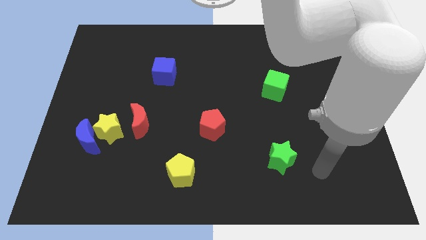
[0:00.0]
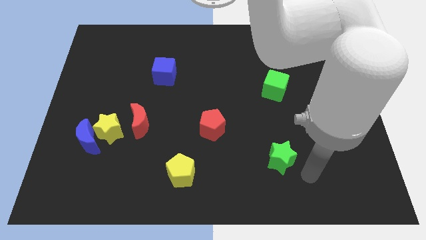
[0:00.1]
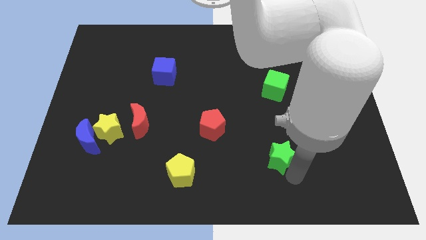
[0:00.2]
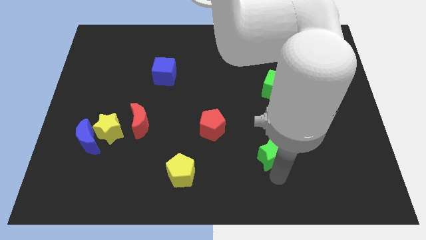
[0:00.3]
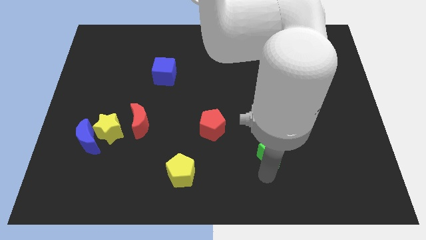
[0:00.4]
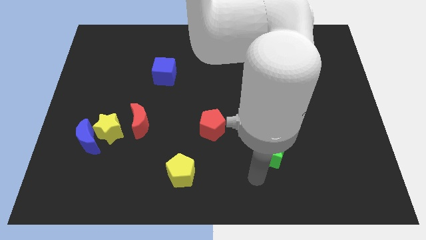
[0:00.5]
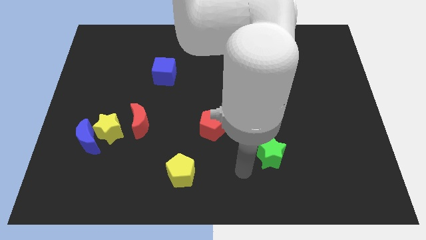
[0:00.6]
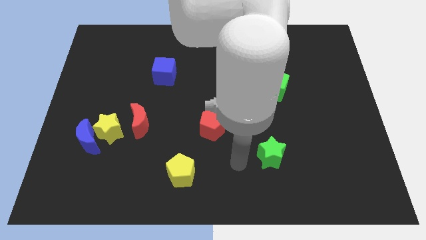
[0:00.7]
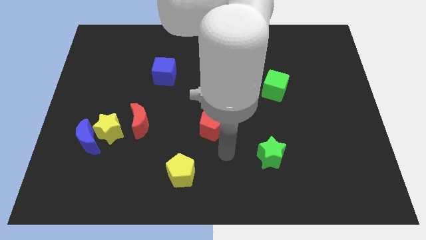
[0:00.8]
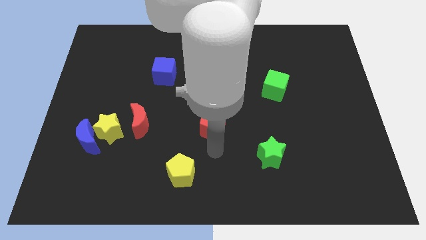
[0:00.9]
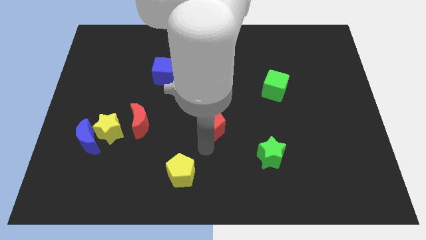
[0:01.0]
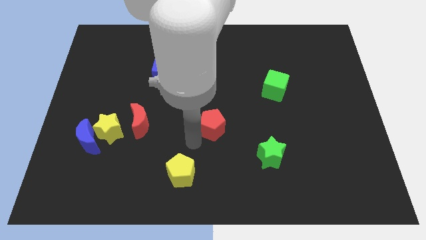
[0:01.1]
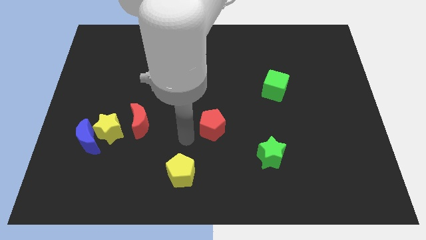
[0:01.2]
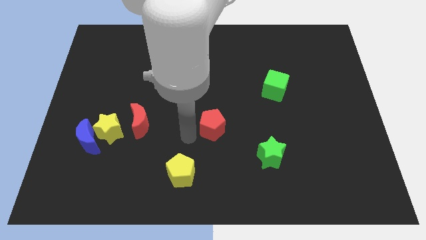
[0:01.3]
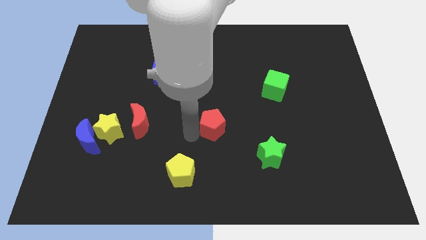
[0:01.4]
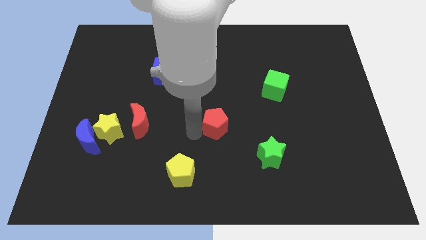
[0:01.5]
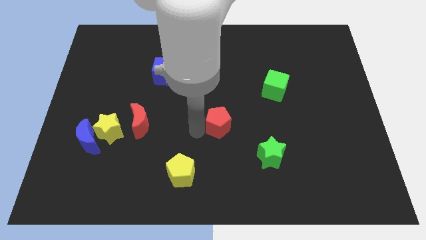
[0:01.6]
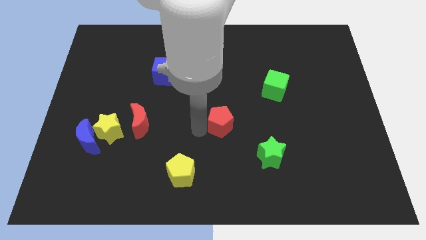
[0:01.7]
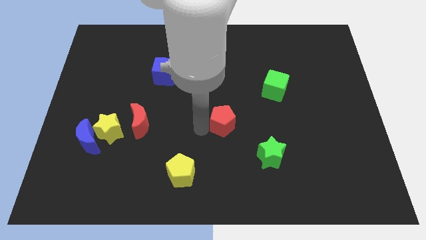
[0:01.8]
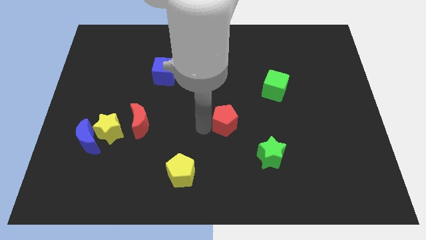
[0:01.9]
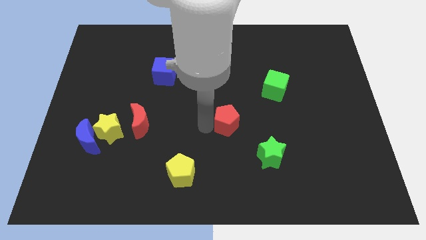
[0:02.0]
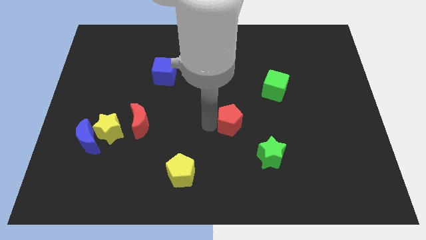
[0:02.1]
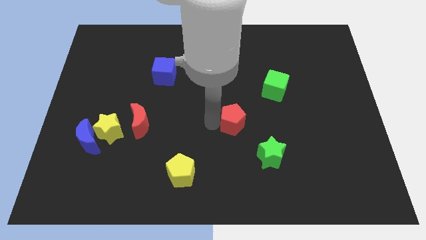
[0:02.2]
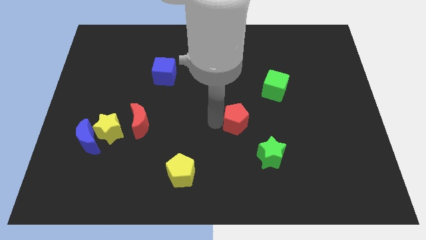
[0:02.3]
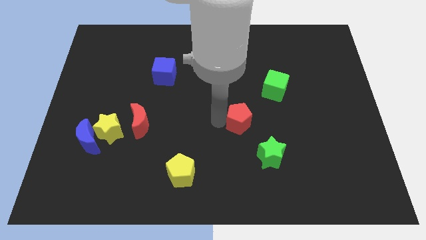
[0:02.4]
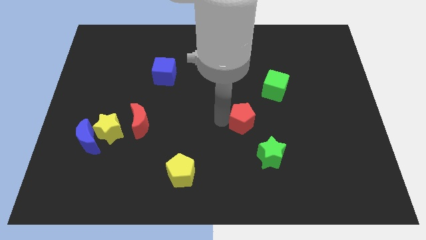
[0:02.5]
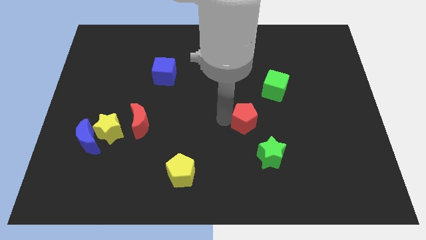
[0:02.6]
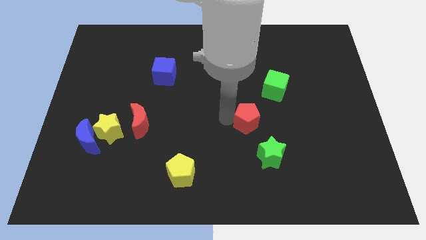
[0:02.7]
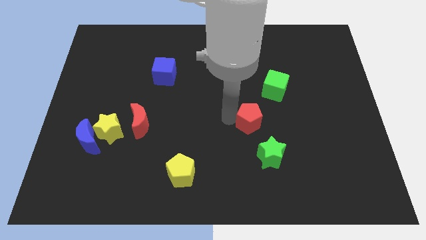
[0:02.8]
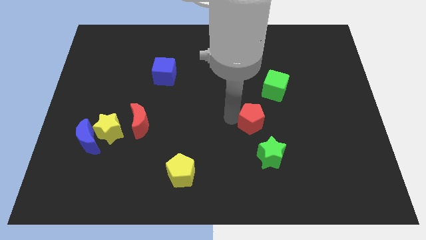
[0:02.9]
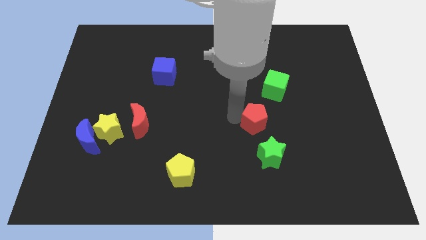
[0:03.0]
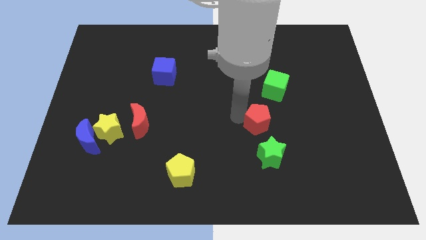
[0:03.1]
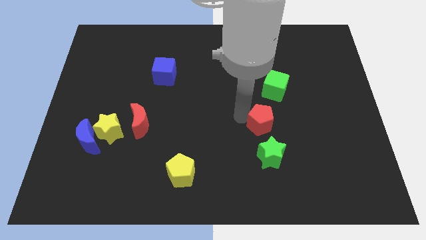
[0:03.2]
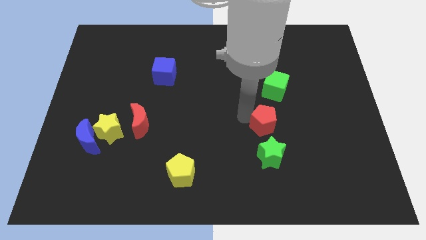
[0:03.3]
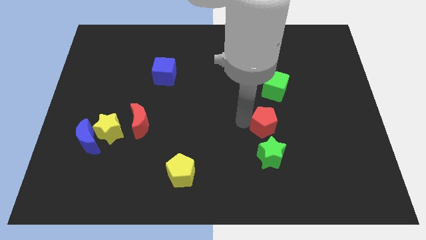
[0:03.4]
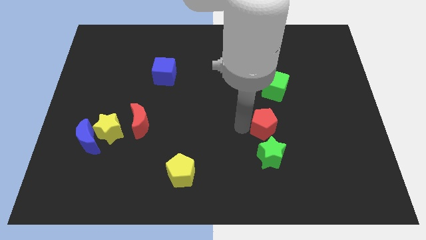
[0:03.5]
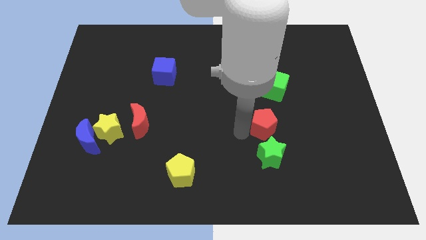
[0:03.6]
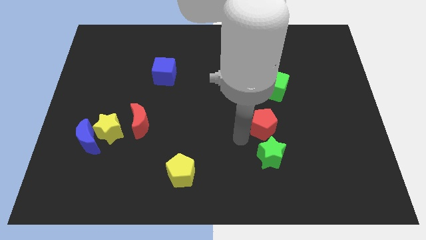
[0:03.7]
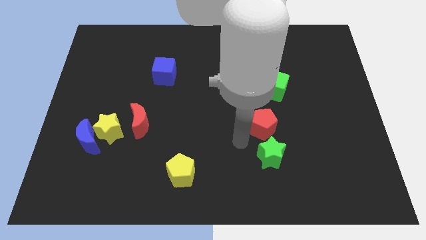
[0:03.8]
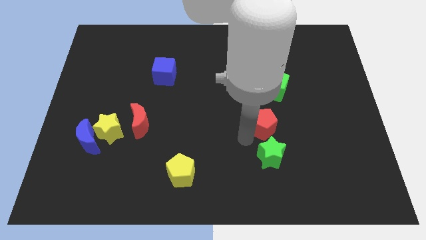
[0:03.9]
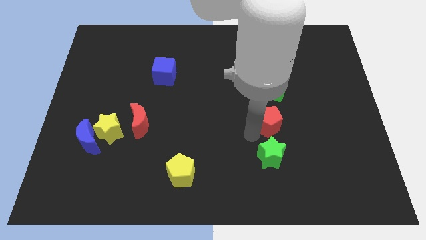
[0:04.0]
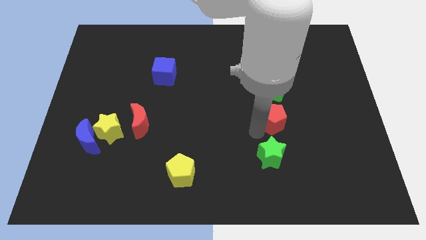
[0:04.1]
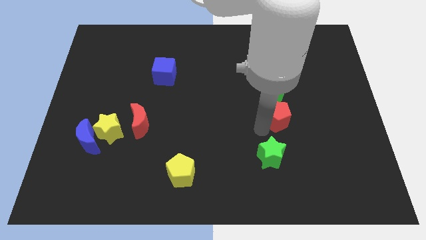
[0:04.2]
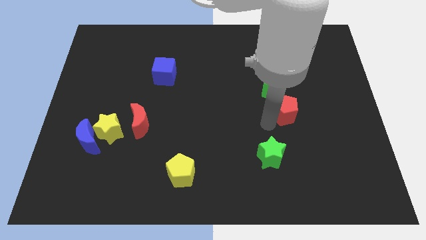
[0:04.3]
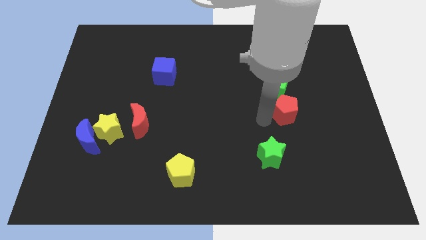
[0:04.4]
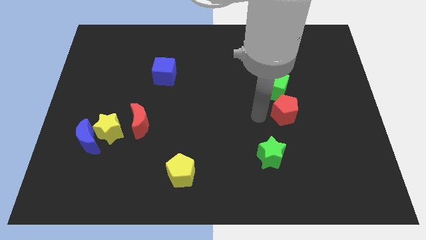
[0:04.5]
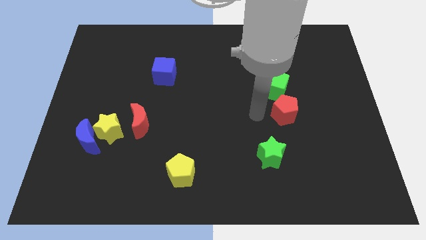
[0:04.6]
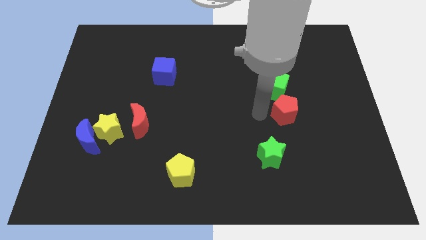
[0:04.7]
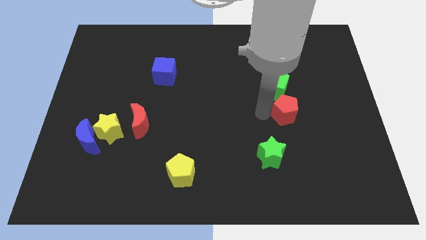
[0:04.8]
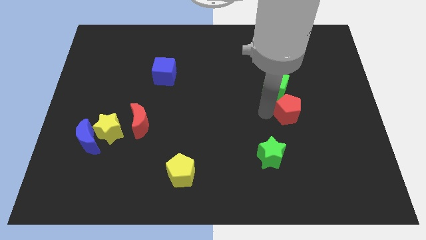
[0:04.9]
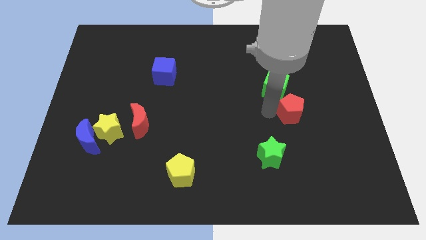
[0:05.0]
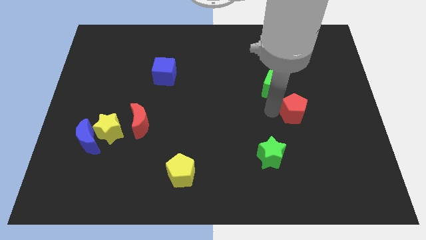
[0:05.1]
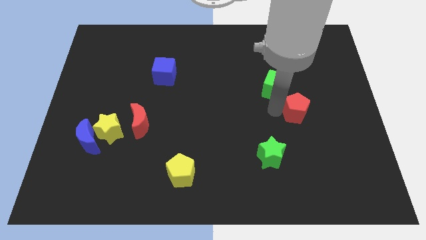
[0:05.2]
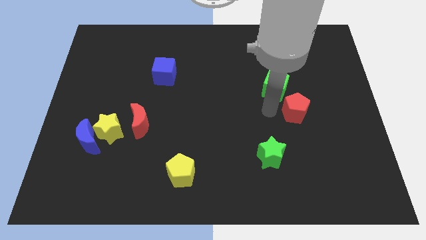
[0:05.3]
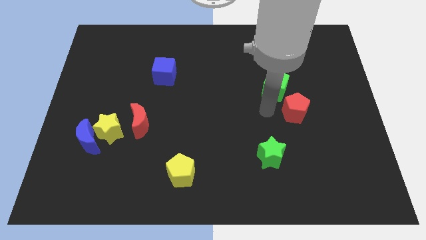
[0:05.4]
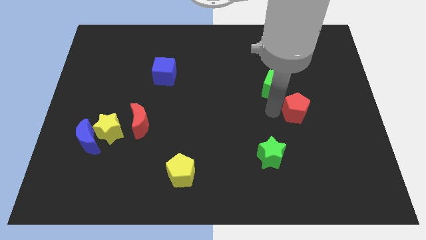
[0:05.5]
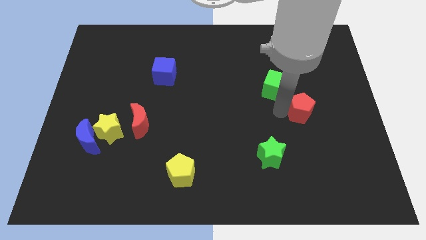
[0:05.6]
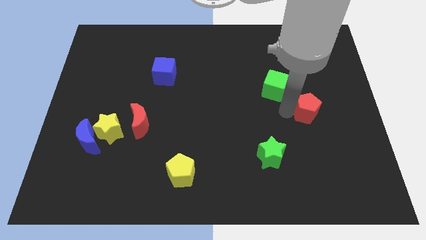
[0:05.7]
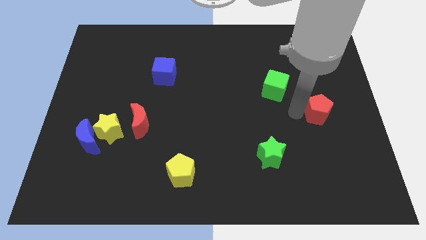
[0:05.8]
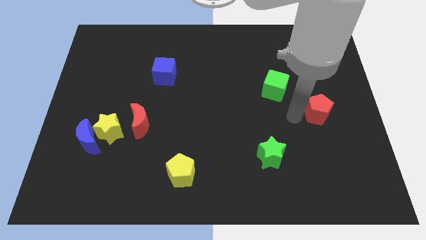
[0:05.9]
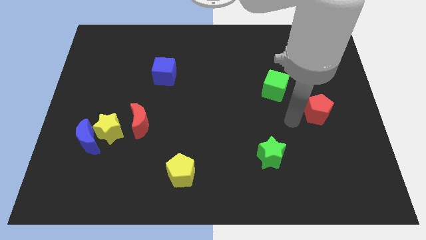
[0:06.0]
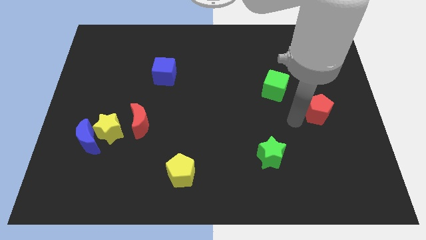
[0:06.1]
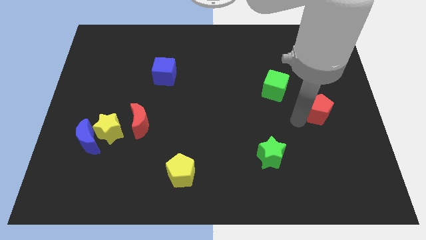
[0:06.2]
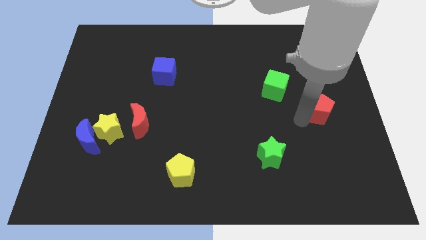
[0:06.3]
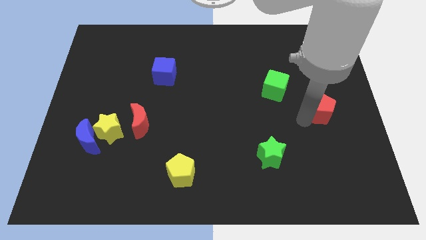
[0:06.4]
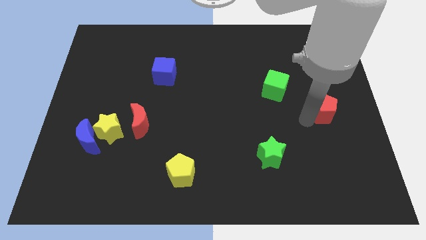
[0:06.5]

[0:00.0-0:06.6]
push the red pentagon to the right side
